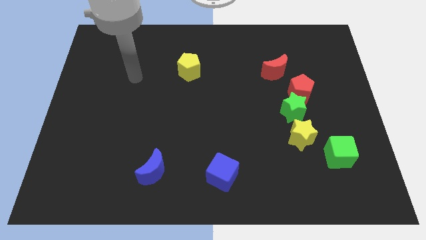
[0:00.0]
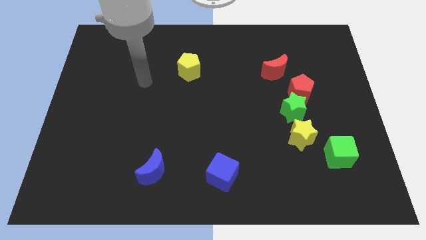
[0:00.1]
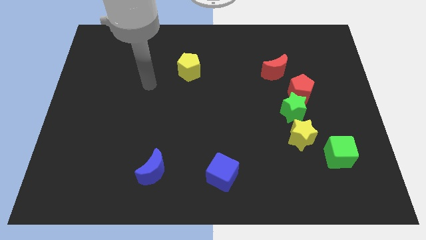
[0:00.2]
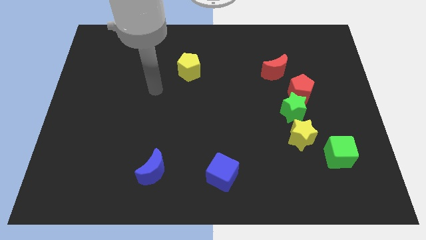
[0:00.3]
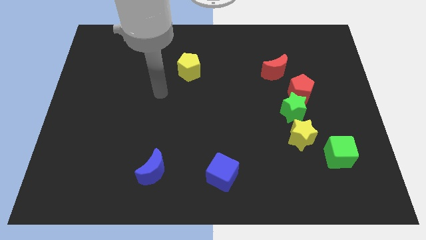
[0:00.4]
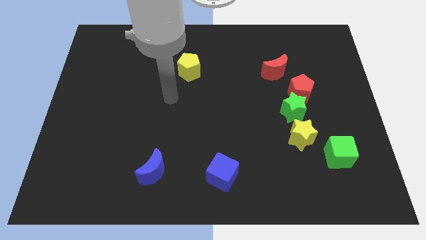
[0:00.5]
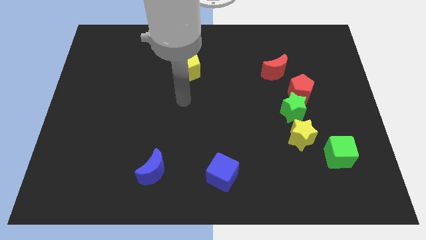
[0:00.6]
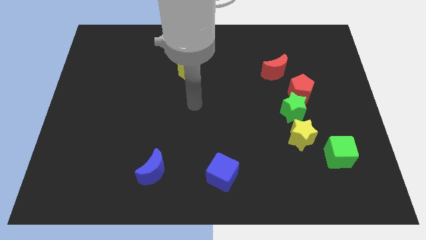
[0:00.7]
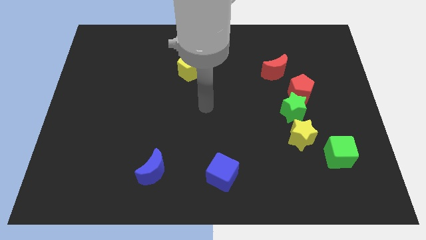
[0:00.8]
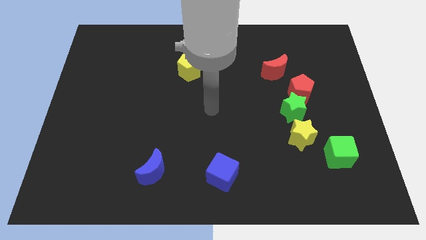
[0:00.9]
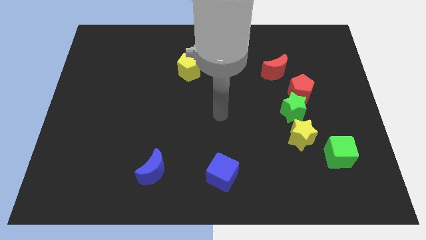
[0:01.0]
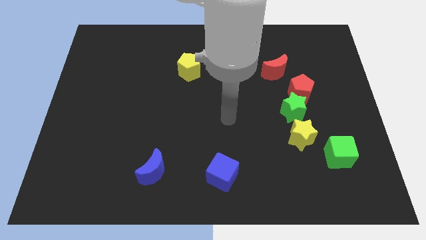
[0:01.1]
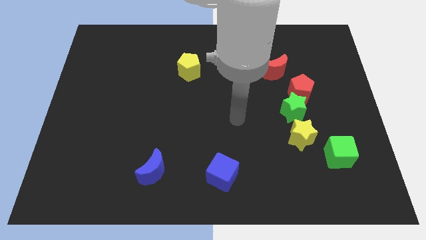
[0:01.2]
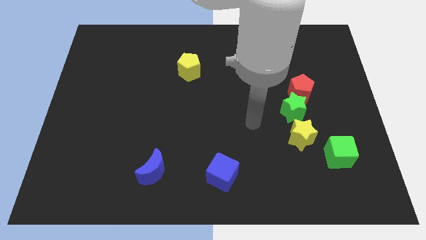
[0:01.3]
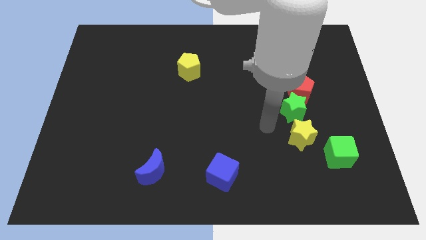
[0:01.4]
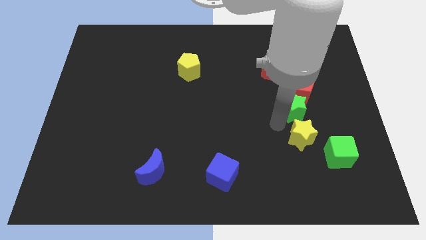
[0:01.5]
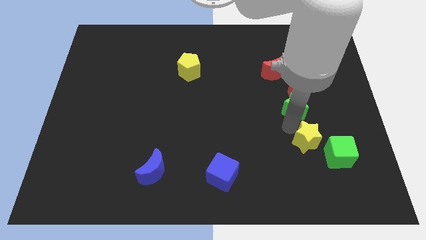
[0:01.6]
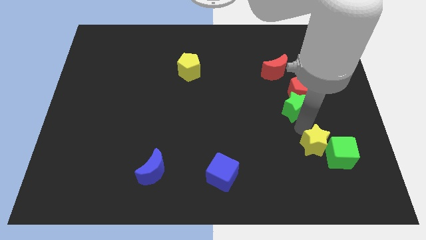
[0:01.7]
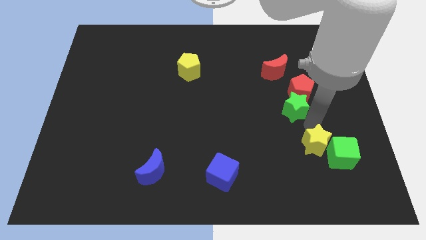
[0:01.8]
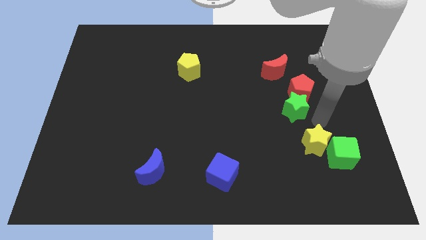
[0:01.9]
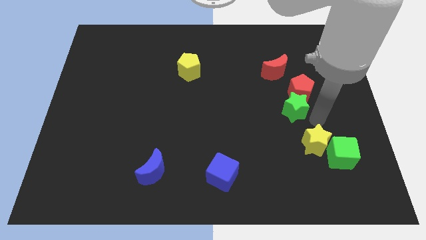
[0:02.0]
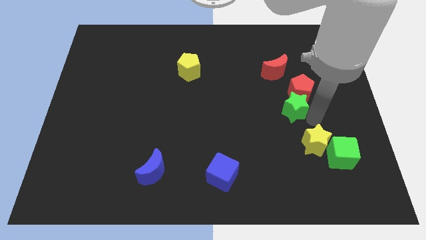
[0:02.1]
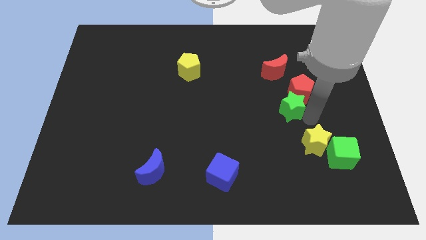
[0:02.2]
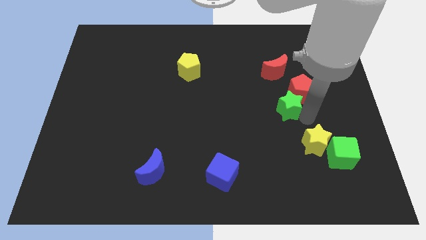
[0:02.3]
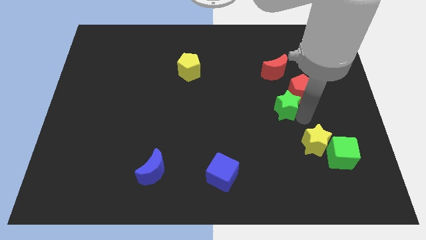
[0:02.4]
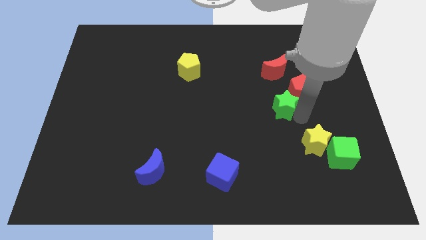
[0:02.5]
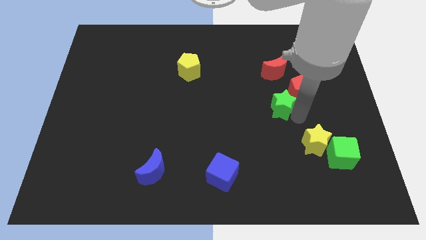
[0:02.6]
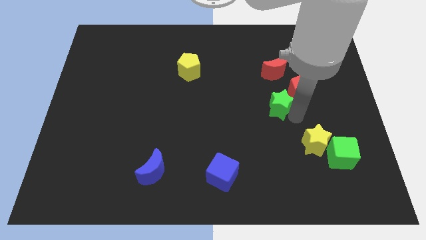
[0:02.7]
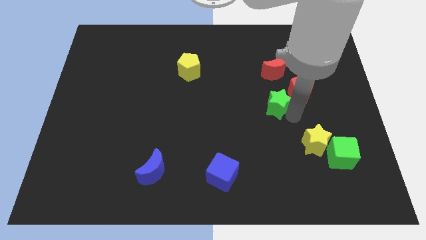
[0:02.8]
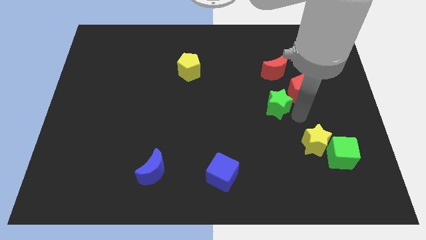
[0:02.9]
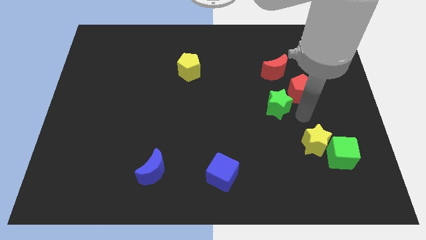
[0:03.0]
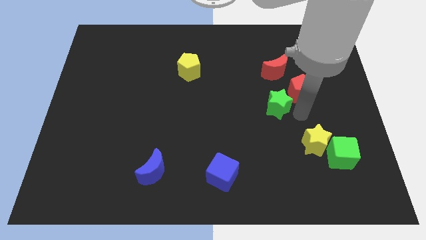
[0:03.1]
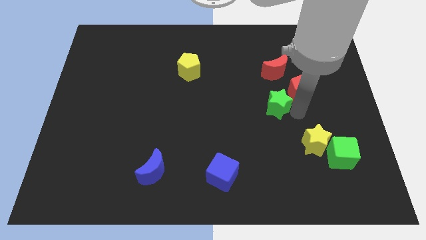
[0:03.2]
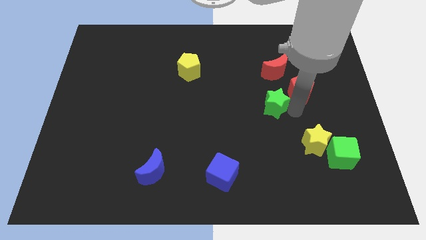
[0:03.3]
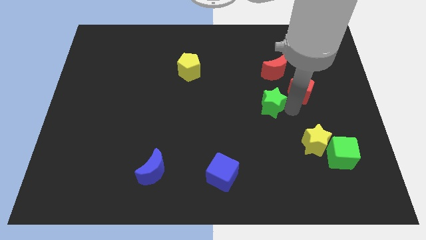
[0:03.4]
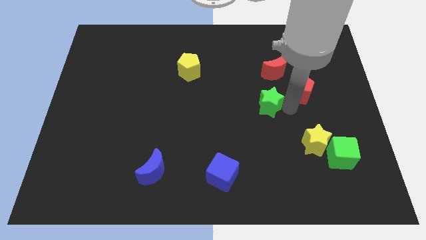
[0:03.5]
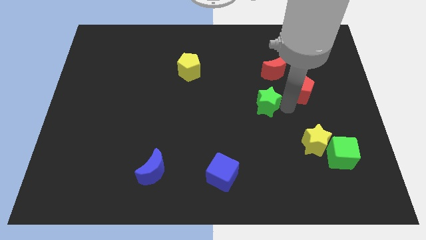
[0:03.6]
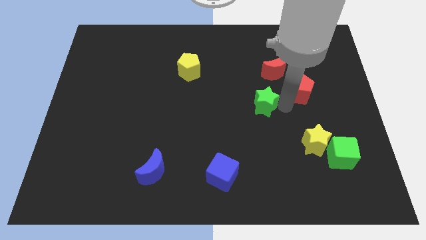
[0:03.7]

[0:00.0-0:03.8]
move the green star away from the red pentagon and yellow star

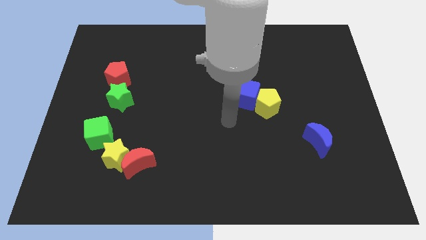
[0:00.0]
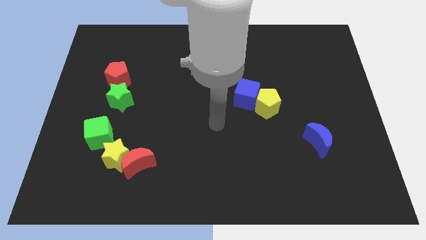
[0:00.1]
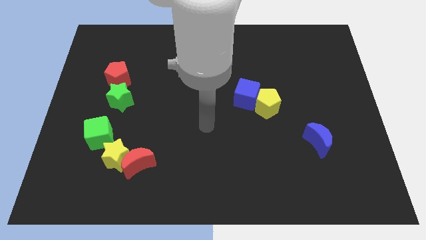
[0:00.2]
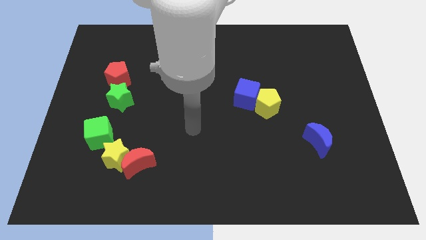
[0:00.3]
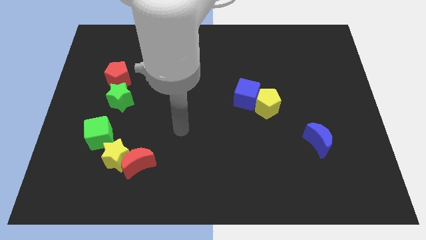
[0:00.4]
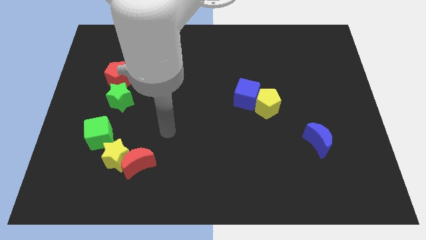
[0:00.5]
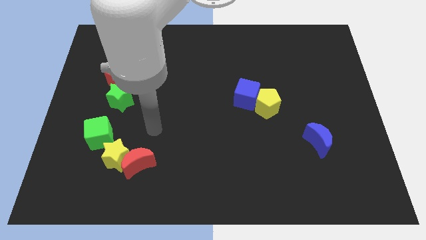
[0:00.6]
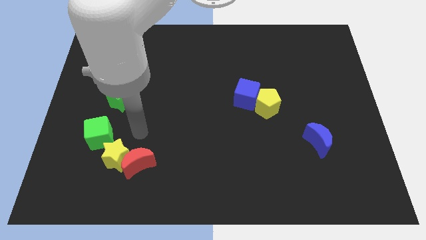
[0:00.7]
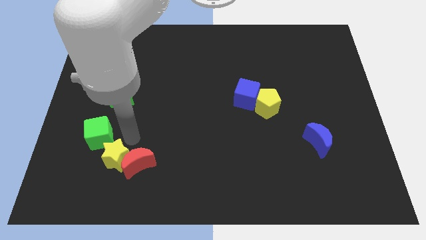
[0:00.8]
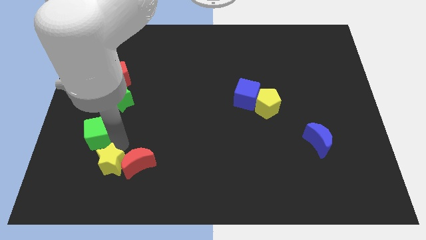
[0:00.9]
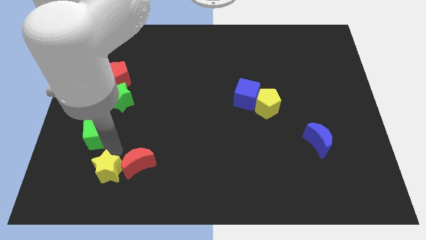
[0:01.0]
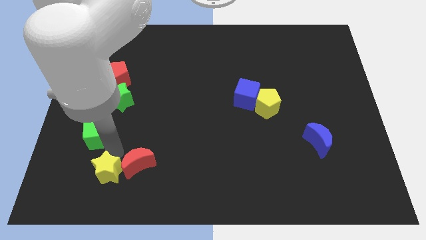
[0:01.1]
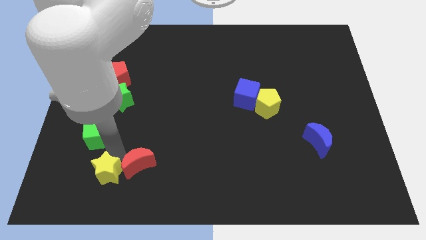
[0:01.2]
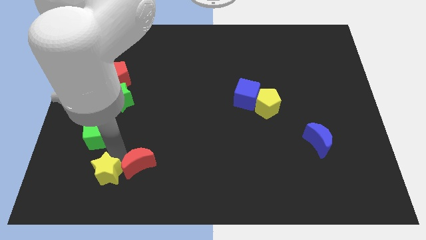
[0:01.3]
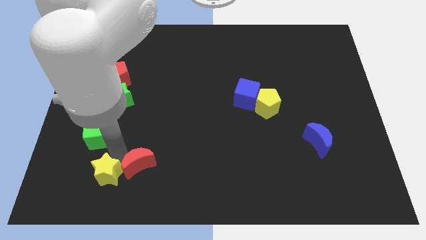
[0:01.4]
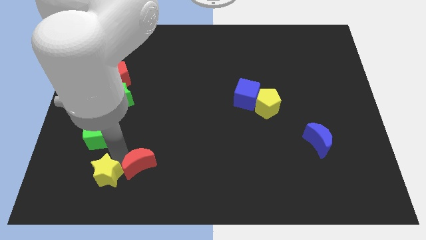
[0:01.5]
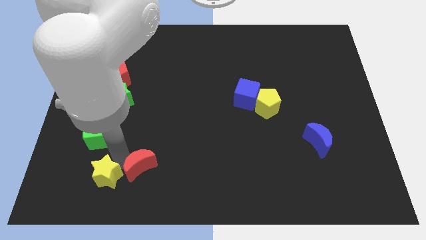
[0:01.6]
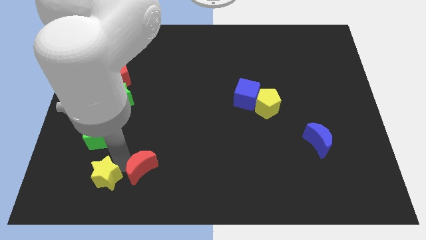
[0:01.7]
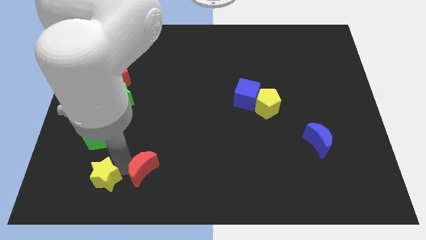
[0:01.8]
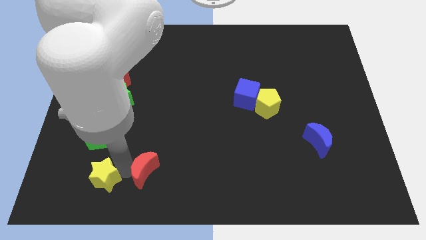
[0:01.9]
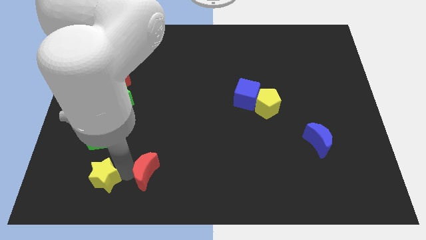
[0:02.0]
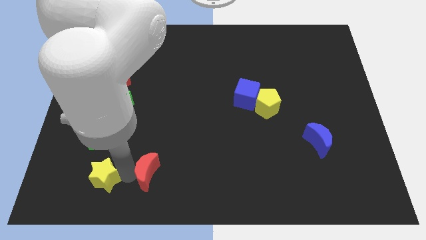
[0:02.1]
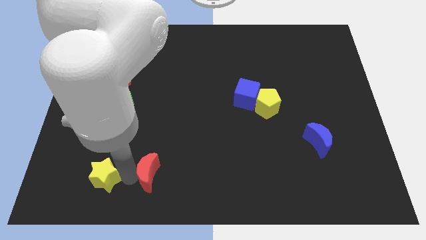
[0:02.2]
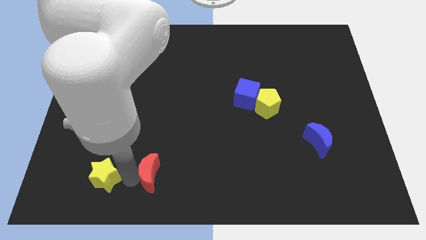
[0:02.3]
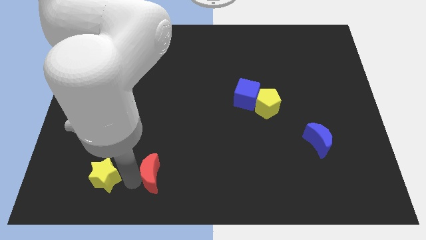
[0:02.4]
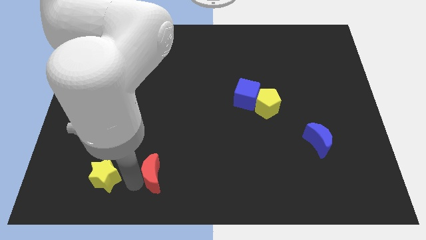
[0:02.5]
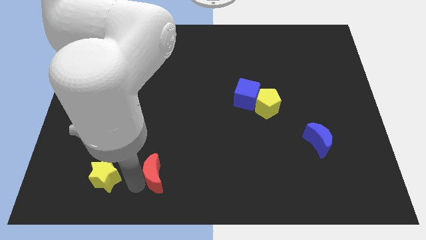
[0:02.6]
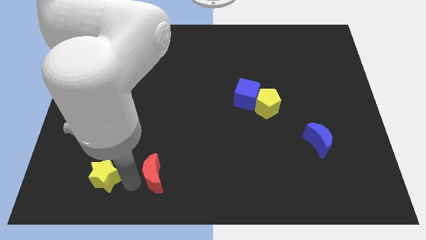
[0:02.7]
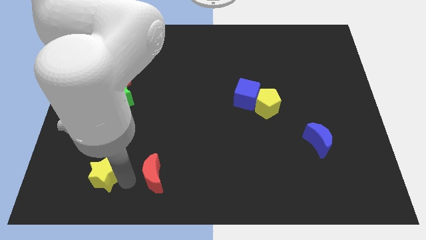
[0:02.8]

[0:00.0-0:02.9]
move the red moon away from the yellow star

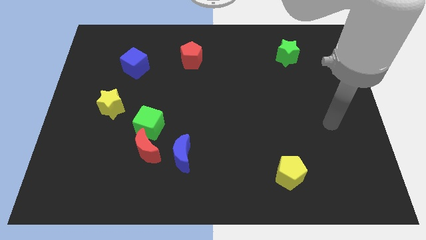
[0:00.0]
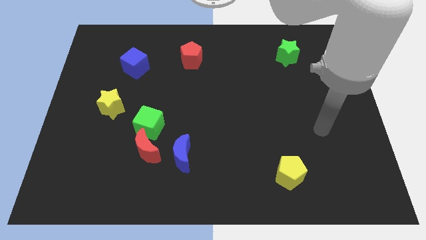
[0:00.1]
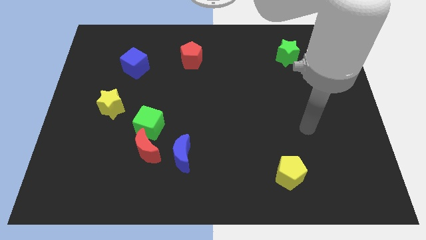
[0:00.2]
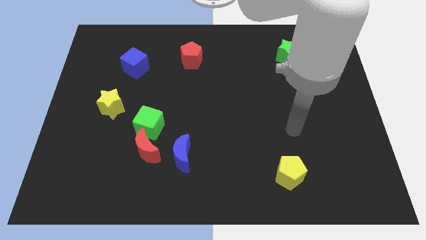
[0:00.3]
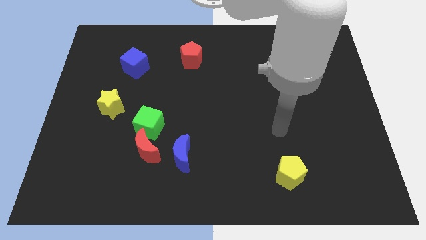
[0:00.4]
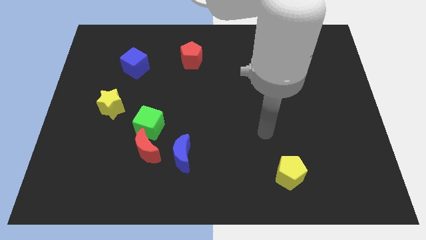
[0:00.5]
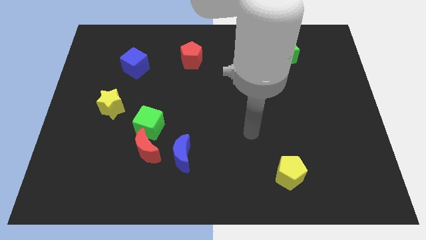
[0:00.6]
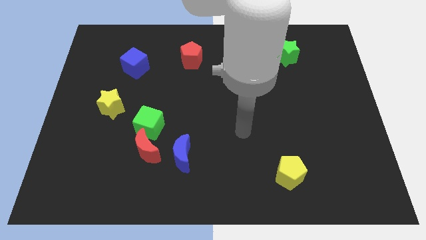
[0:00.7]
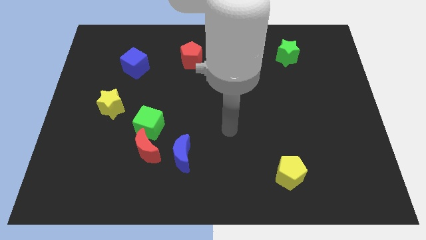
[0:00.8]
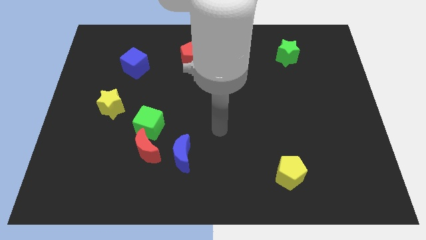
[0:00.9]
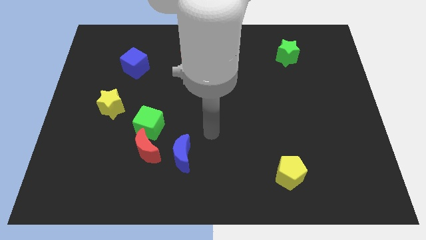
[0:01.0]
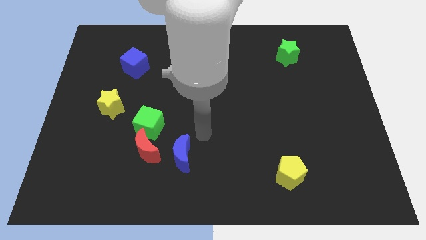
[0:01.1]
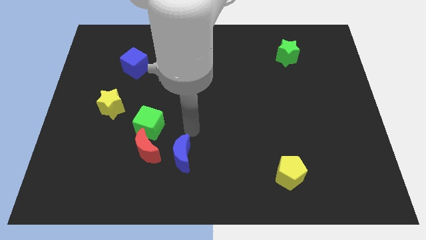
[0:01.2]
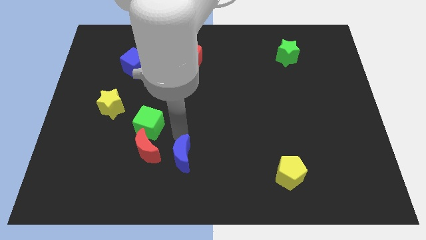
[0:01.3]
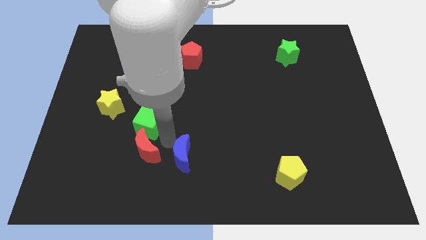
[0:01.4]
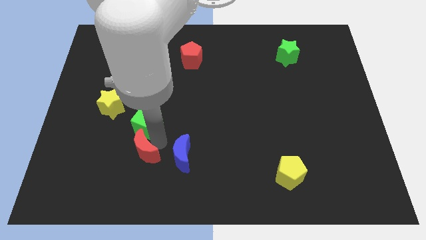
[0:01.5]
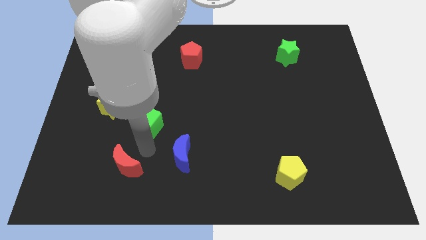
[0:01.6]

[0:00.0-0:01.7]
move the green cube away from the red moon

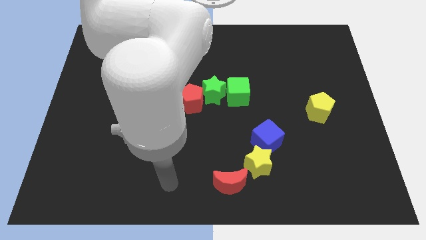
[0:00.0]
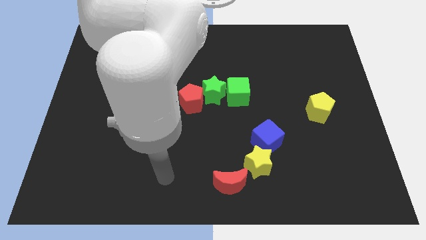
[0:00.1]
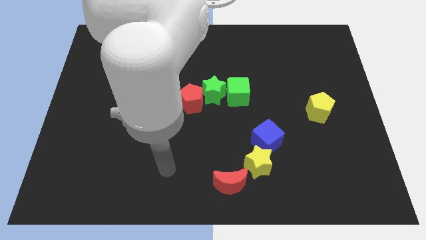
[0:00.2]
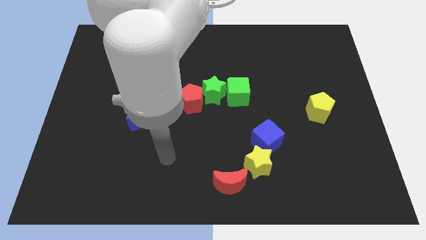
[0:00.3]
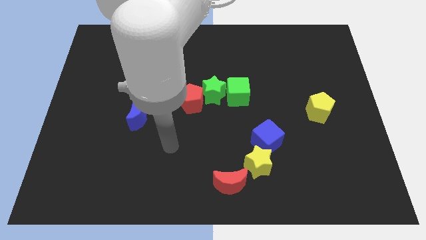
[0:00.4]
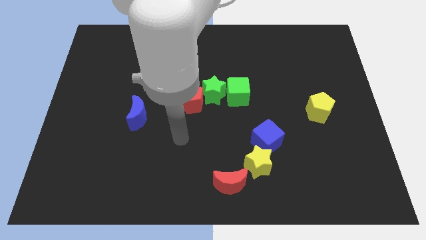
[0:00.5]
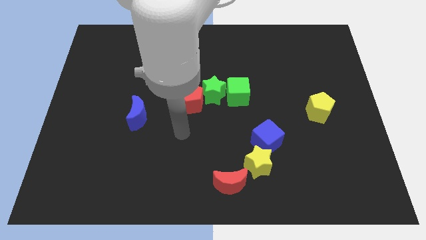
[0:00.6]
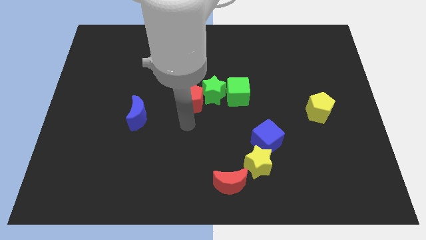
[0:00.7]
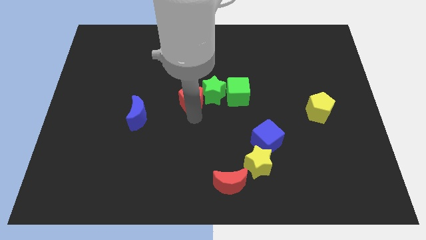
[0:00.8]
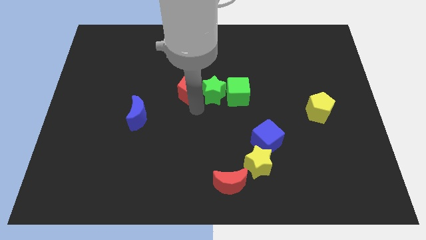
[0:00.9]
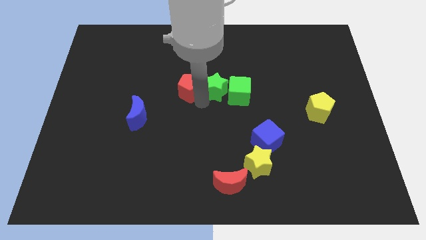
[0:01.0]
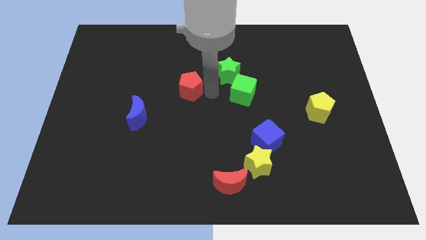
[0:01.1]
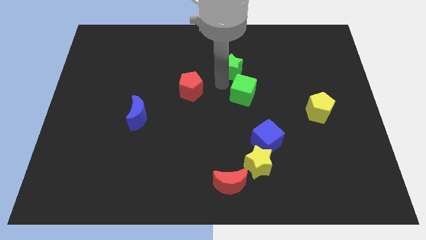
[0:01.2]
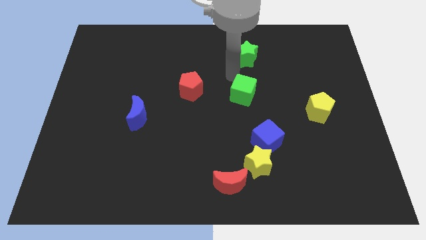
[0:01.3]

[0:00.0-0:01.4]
move the green cube away from the green star
